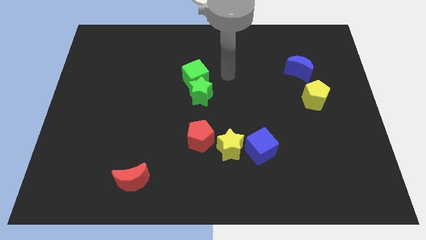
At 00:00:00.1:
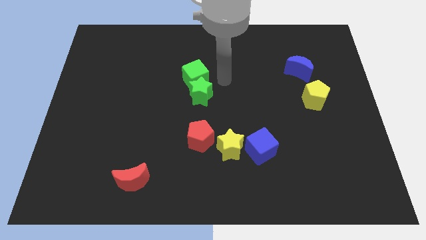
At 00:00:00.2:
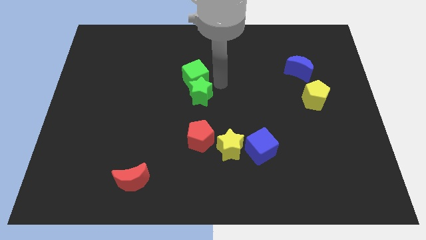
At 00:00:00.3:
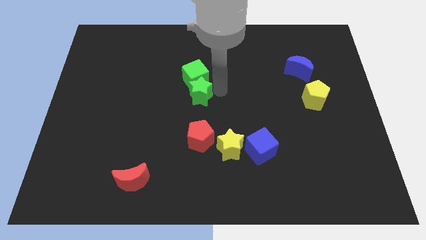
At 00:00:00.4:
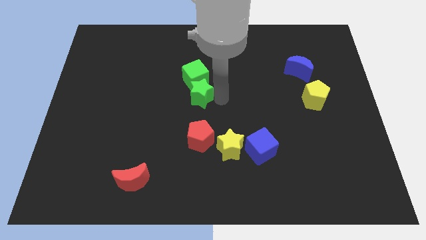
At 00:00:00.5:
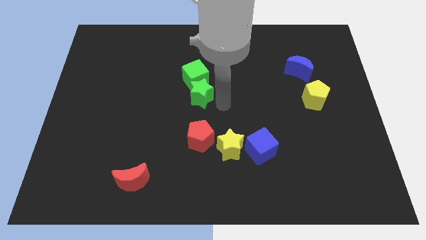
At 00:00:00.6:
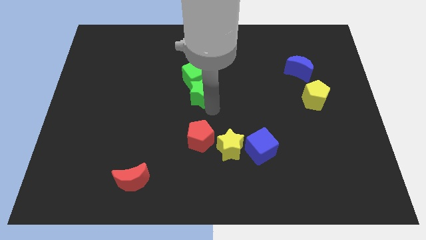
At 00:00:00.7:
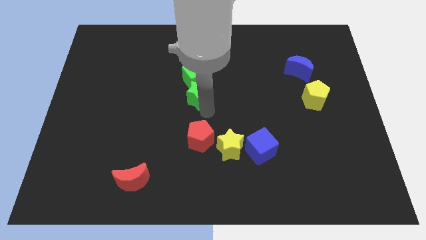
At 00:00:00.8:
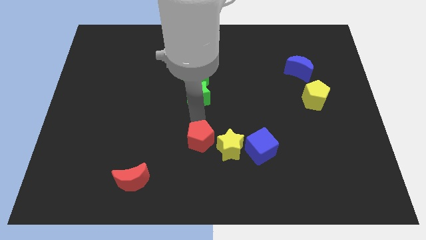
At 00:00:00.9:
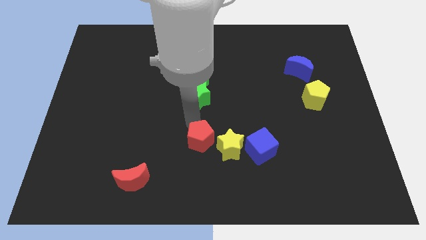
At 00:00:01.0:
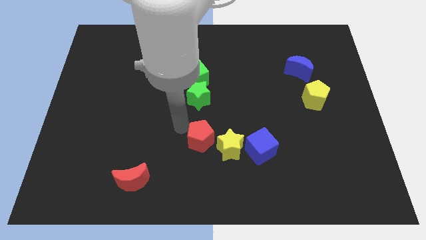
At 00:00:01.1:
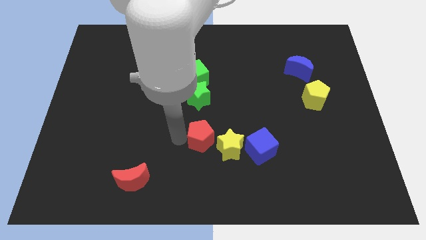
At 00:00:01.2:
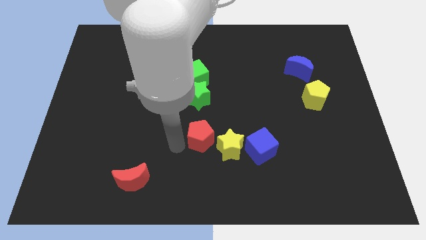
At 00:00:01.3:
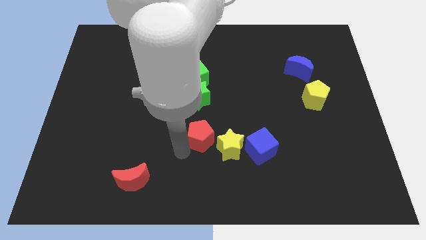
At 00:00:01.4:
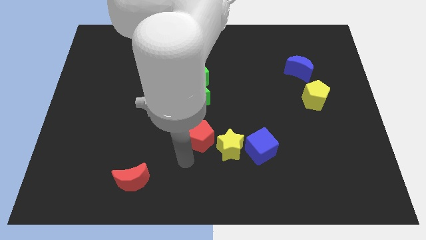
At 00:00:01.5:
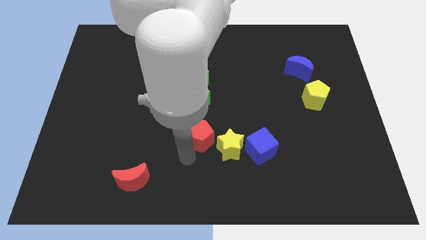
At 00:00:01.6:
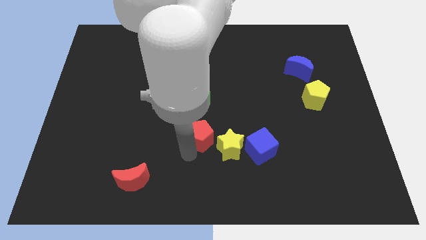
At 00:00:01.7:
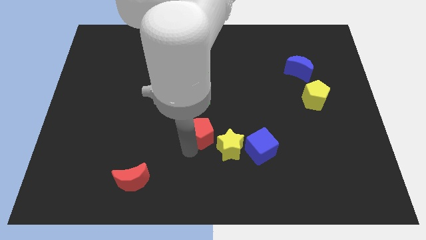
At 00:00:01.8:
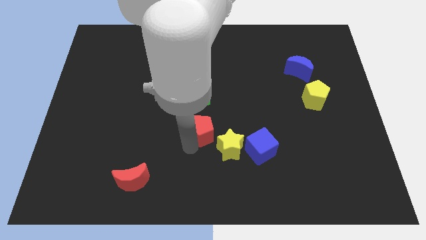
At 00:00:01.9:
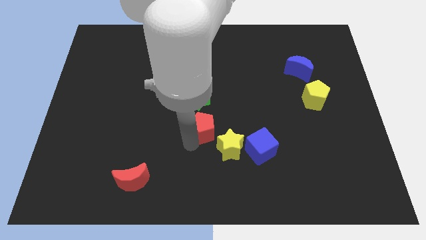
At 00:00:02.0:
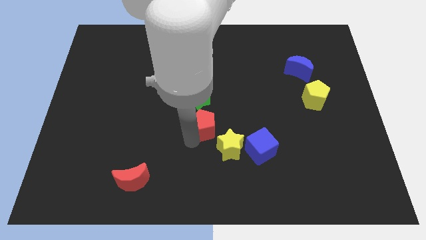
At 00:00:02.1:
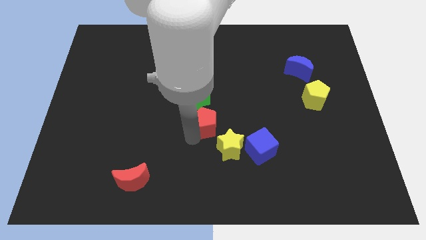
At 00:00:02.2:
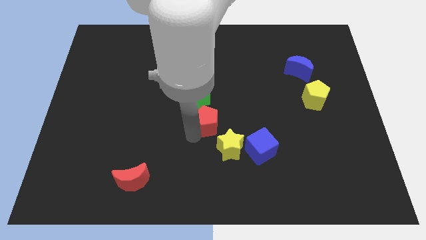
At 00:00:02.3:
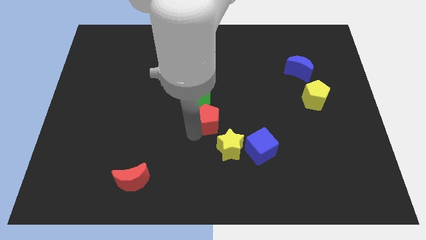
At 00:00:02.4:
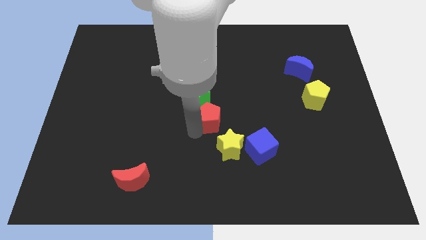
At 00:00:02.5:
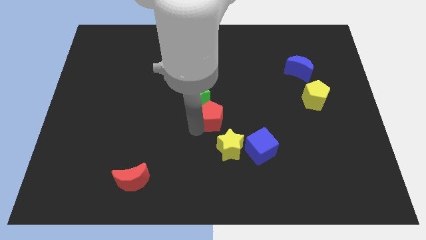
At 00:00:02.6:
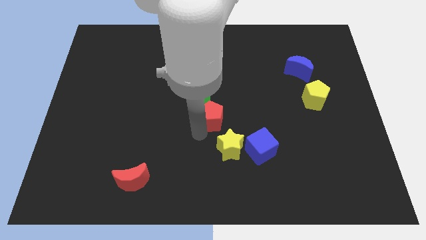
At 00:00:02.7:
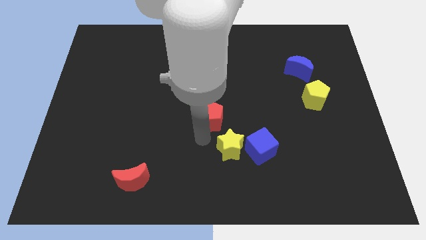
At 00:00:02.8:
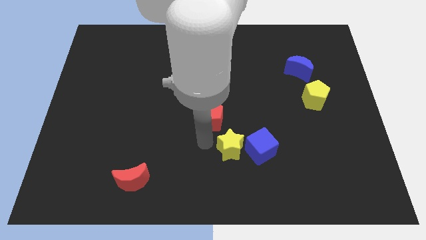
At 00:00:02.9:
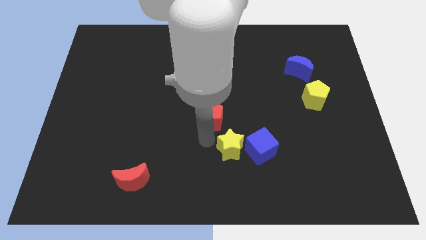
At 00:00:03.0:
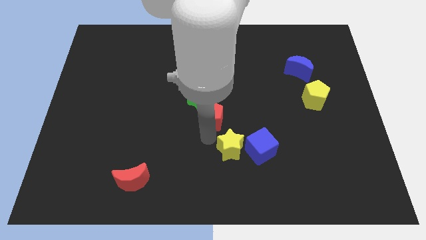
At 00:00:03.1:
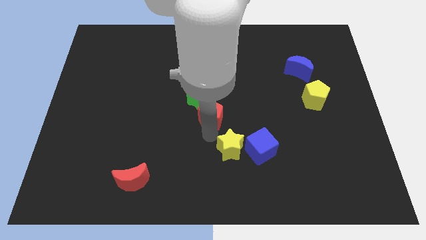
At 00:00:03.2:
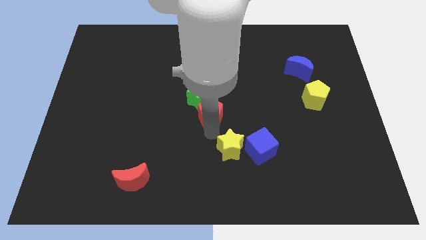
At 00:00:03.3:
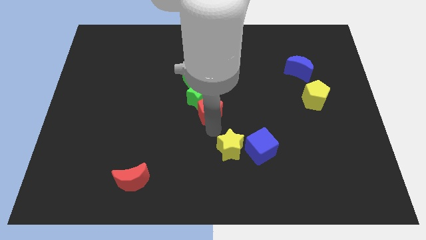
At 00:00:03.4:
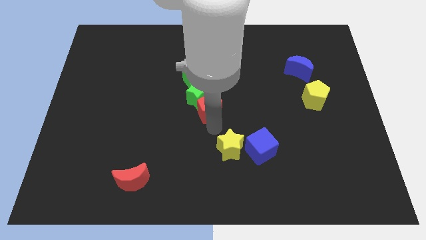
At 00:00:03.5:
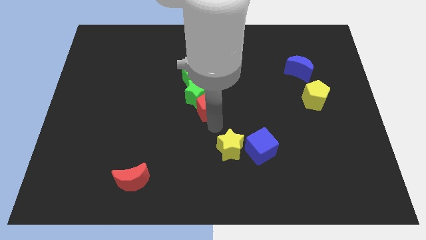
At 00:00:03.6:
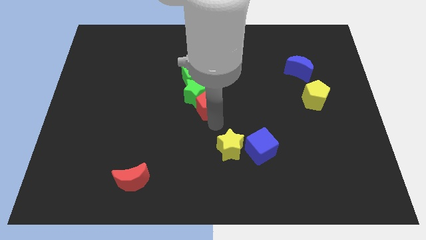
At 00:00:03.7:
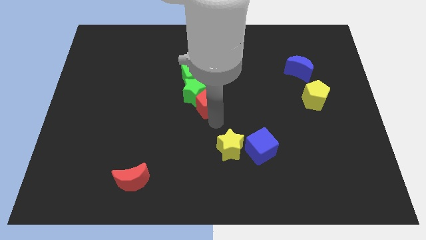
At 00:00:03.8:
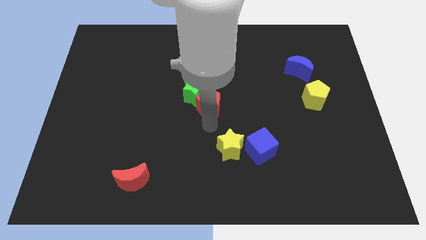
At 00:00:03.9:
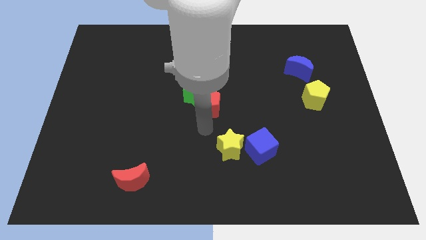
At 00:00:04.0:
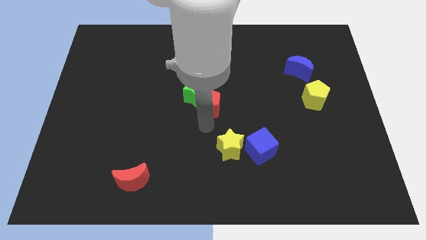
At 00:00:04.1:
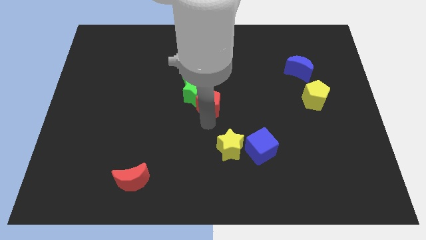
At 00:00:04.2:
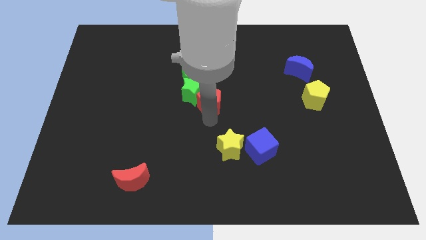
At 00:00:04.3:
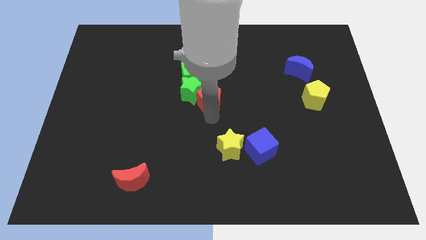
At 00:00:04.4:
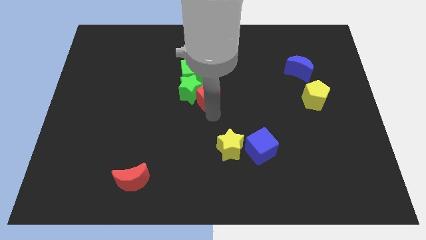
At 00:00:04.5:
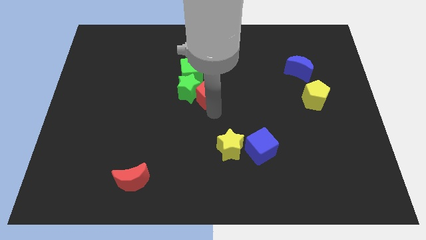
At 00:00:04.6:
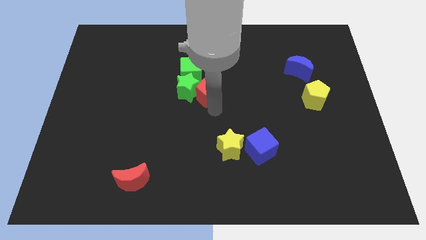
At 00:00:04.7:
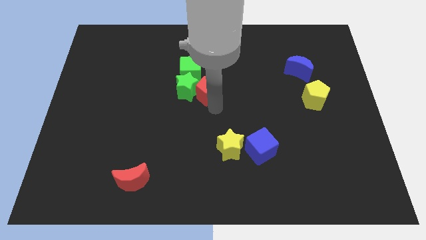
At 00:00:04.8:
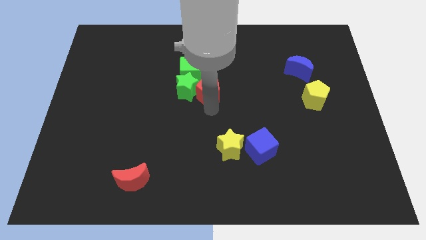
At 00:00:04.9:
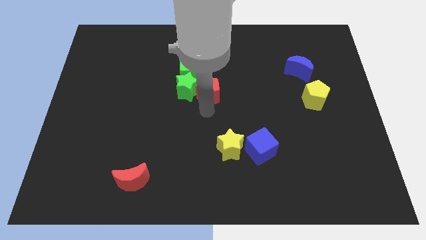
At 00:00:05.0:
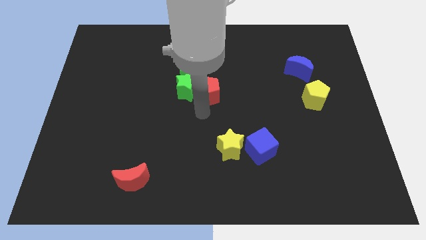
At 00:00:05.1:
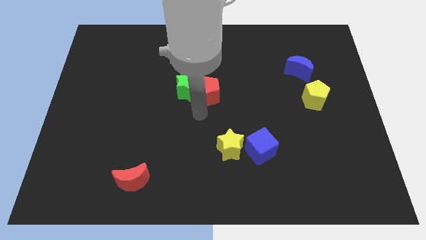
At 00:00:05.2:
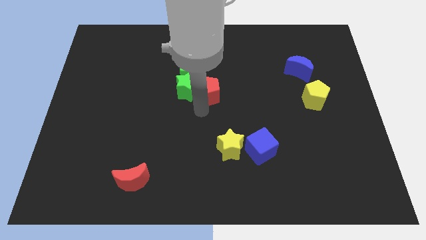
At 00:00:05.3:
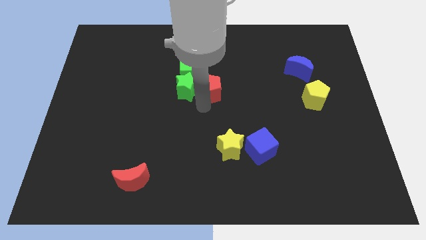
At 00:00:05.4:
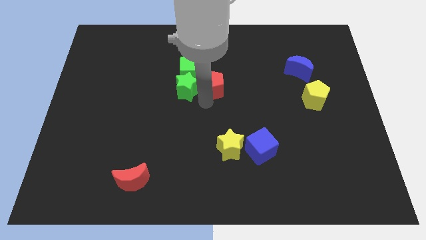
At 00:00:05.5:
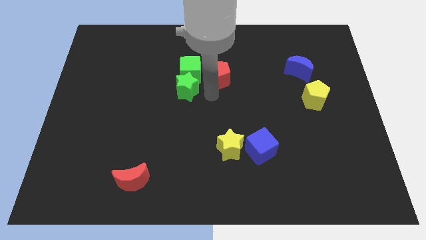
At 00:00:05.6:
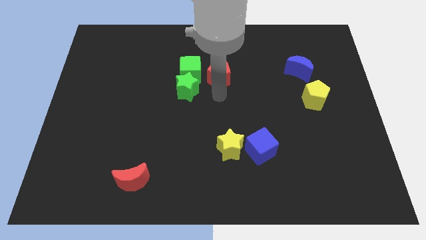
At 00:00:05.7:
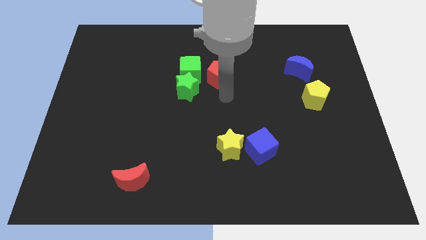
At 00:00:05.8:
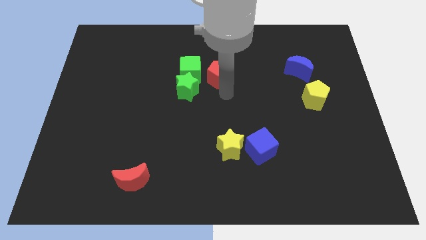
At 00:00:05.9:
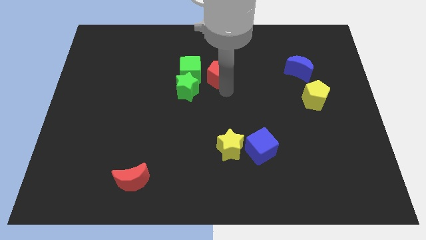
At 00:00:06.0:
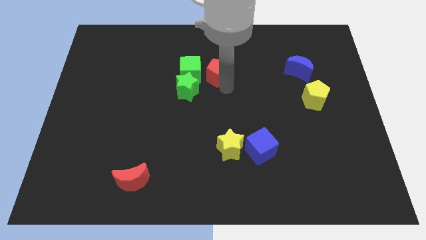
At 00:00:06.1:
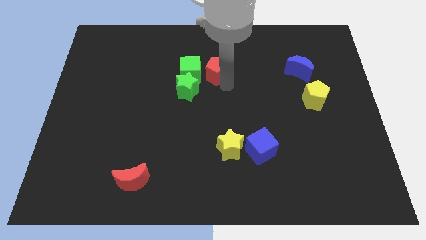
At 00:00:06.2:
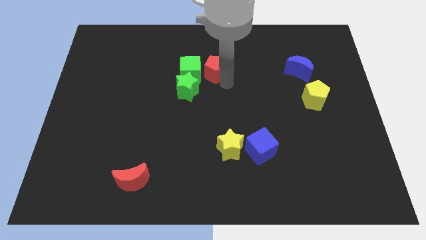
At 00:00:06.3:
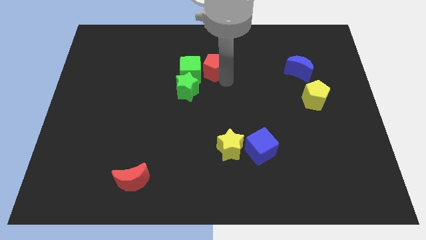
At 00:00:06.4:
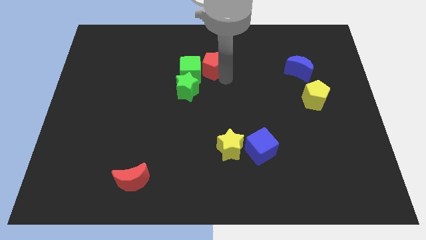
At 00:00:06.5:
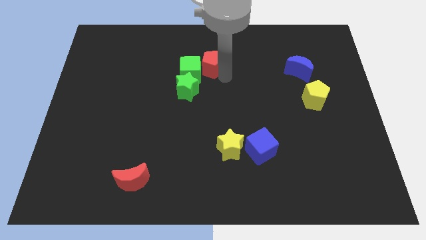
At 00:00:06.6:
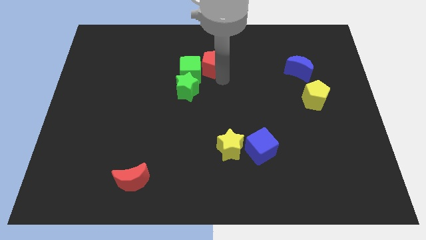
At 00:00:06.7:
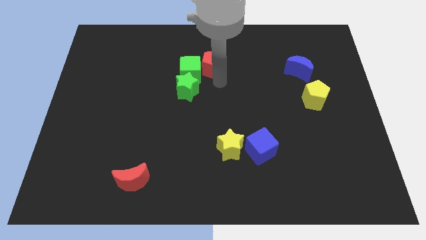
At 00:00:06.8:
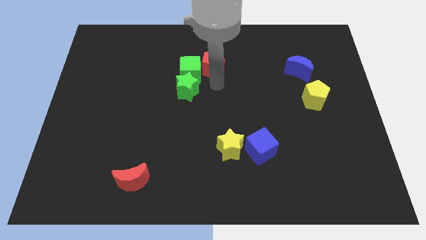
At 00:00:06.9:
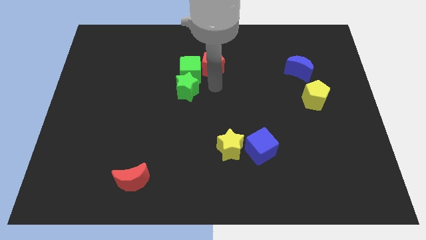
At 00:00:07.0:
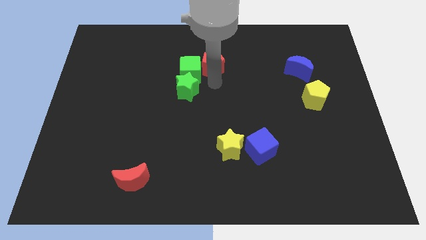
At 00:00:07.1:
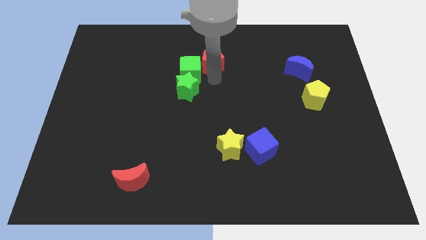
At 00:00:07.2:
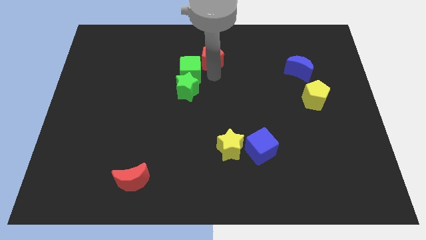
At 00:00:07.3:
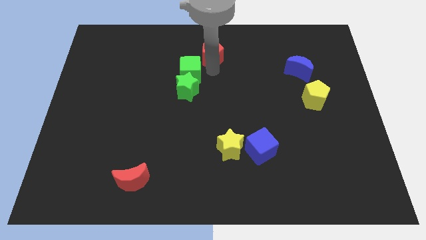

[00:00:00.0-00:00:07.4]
push the red pentagon to the top

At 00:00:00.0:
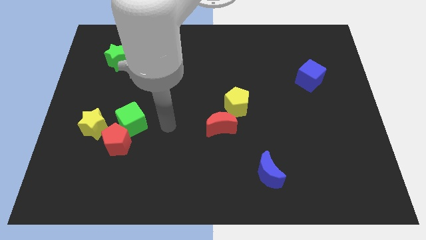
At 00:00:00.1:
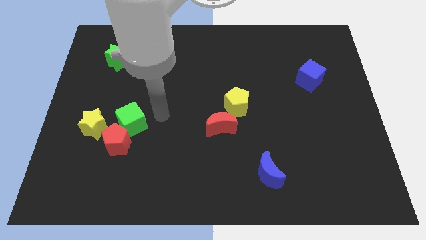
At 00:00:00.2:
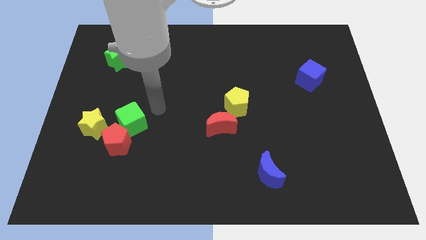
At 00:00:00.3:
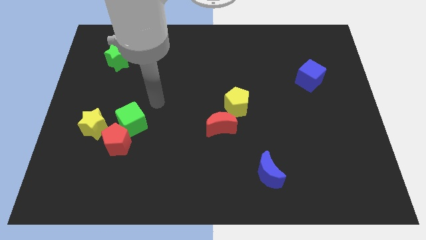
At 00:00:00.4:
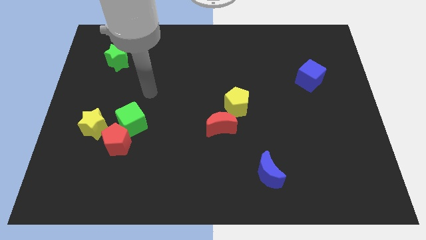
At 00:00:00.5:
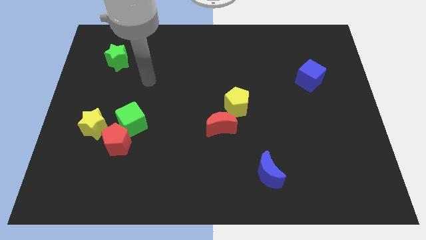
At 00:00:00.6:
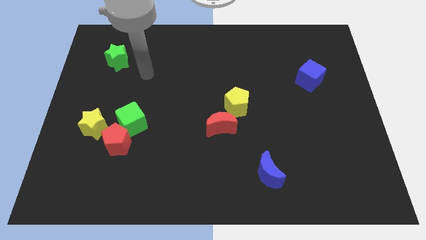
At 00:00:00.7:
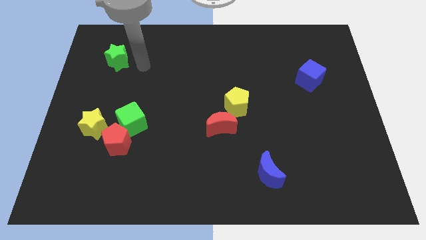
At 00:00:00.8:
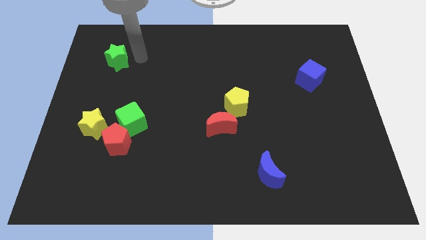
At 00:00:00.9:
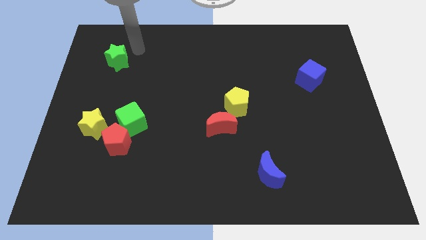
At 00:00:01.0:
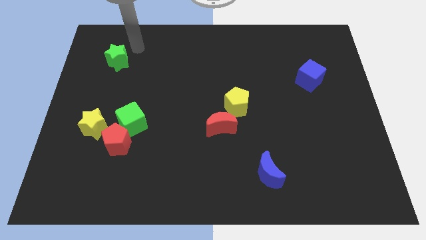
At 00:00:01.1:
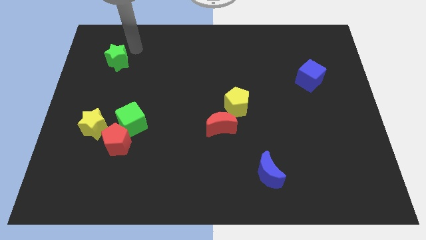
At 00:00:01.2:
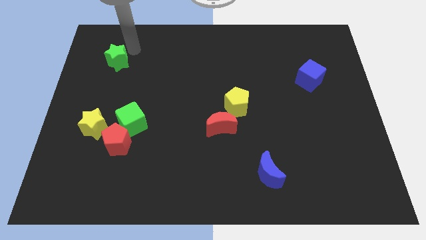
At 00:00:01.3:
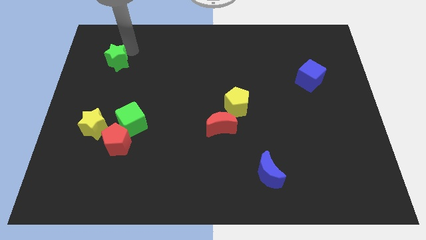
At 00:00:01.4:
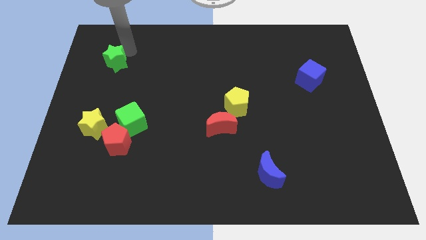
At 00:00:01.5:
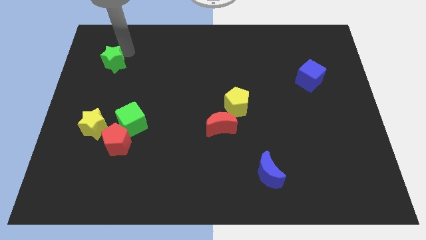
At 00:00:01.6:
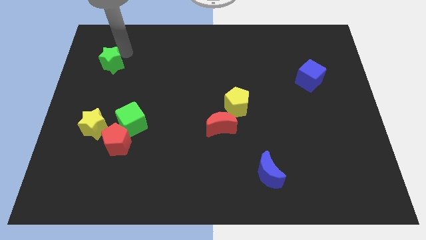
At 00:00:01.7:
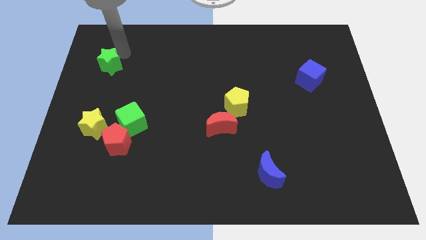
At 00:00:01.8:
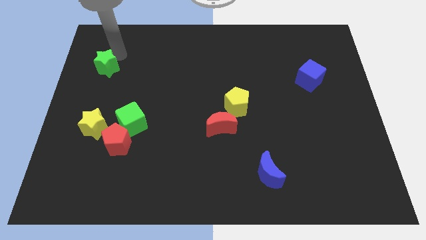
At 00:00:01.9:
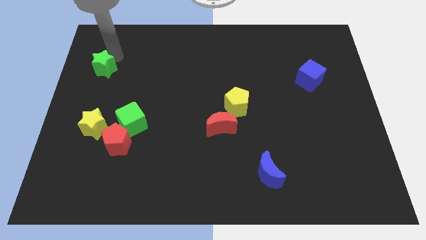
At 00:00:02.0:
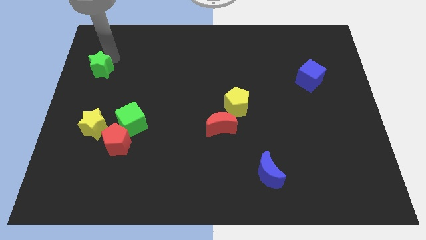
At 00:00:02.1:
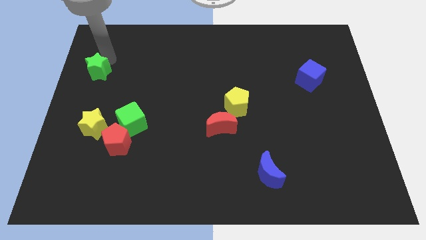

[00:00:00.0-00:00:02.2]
push the green star to the center left
